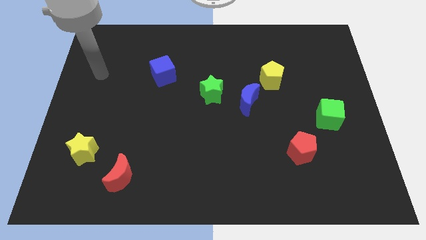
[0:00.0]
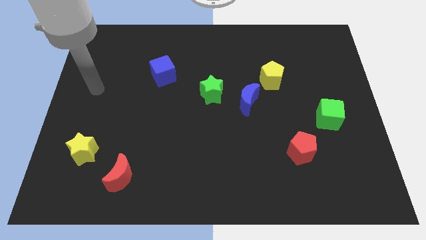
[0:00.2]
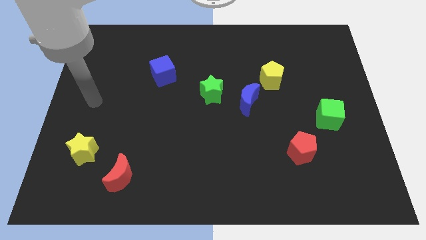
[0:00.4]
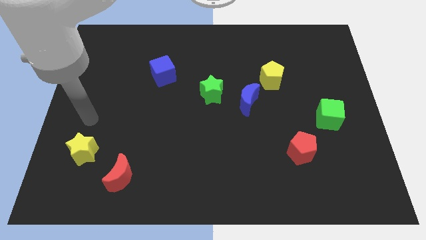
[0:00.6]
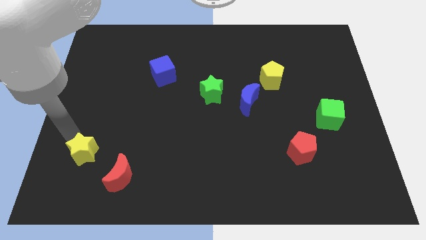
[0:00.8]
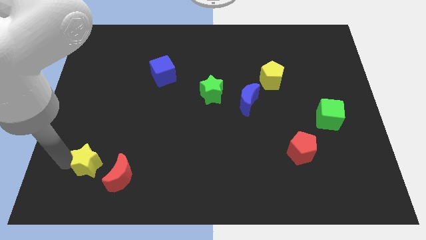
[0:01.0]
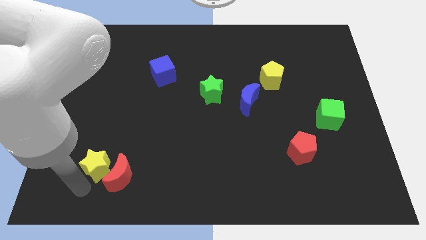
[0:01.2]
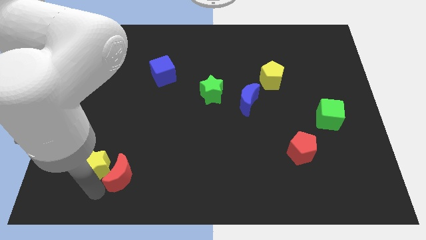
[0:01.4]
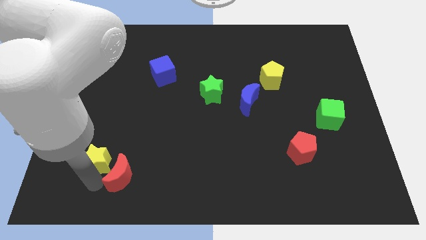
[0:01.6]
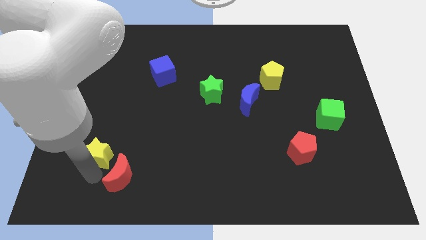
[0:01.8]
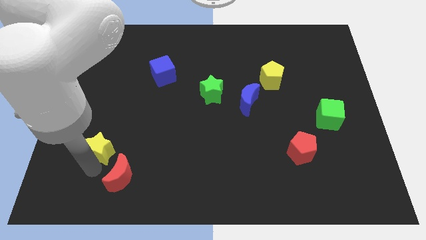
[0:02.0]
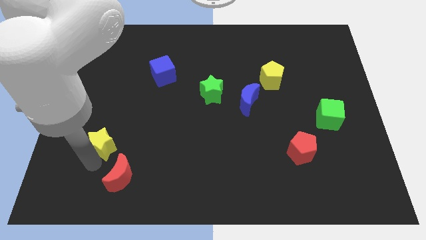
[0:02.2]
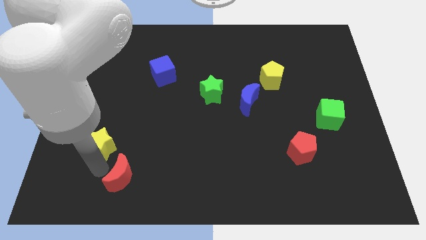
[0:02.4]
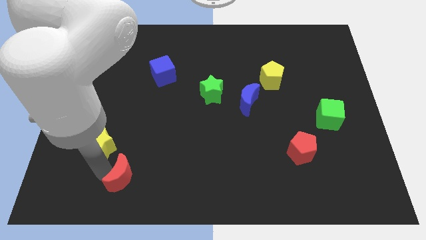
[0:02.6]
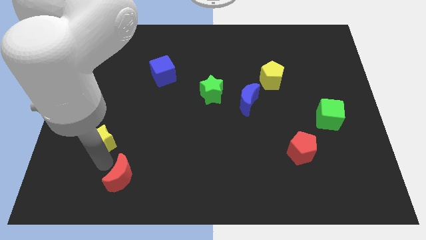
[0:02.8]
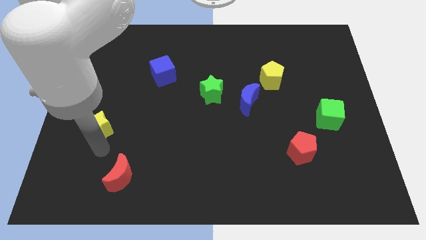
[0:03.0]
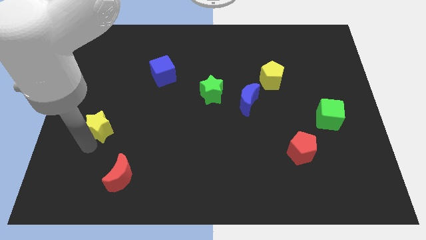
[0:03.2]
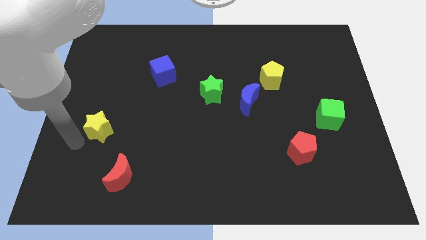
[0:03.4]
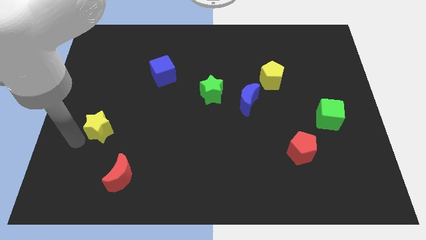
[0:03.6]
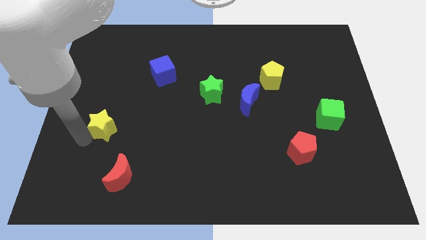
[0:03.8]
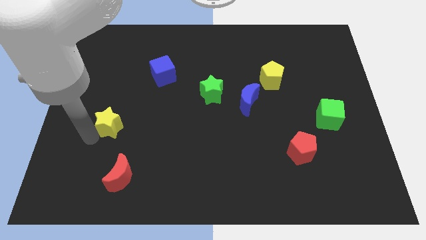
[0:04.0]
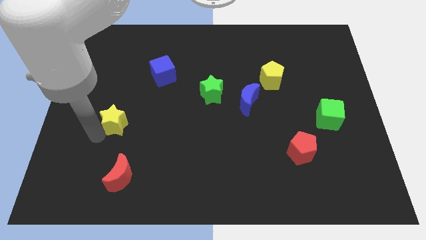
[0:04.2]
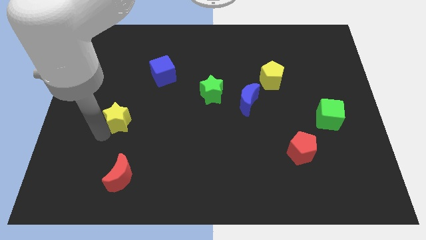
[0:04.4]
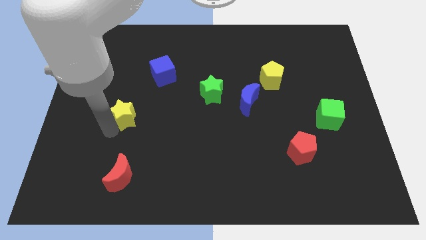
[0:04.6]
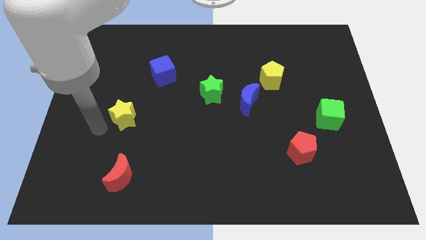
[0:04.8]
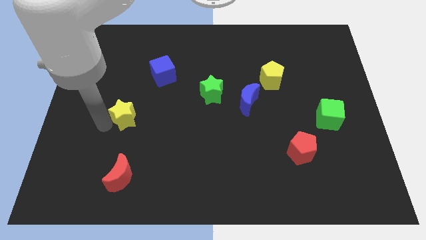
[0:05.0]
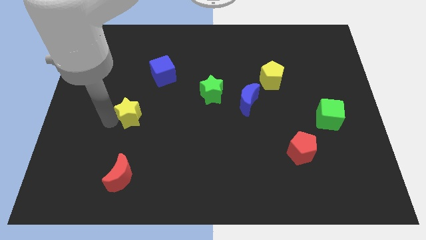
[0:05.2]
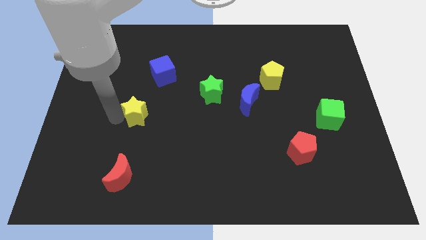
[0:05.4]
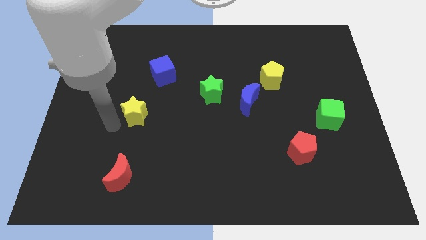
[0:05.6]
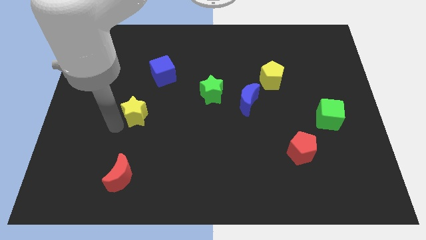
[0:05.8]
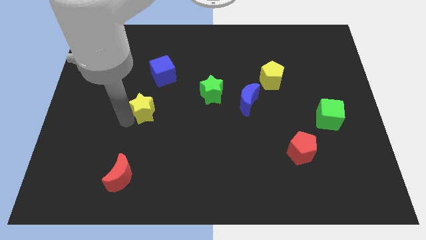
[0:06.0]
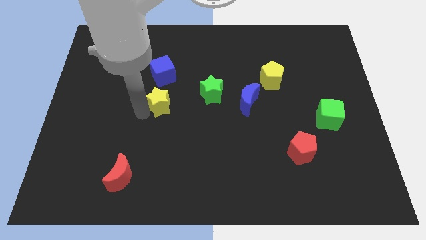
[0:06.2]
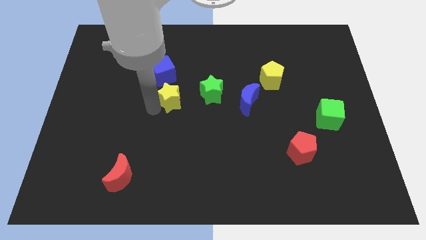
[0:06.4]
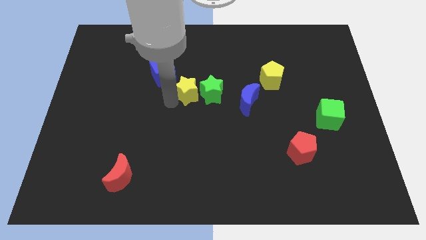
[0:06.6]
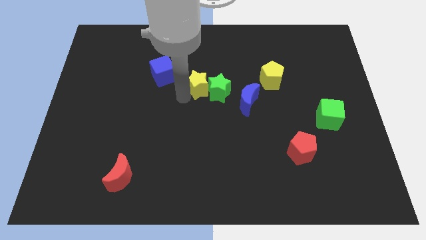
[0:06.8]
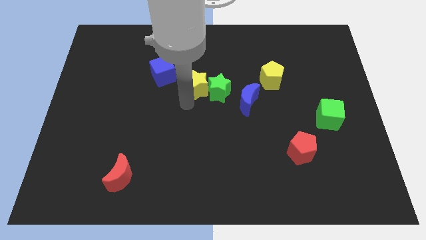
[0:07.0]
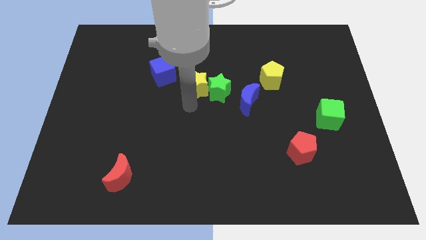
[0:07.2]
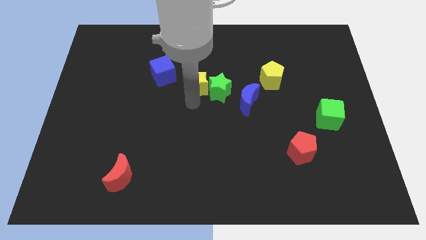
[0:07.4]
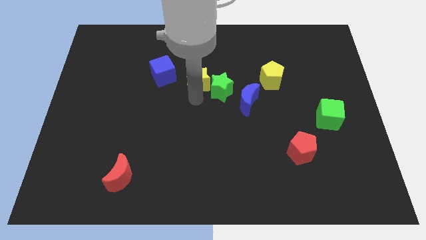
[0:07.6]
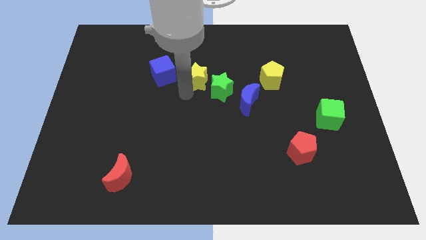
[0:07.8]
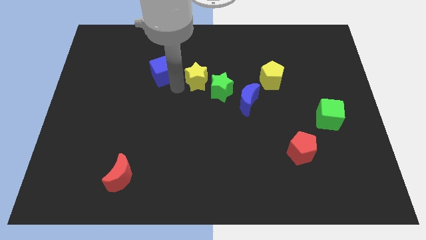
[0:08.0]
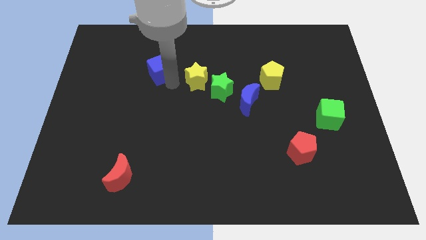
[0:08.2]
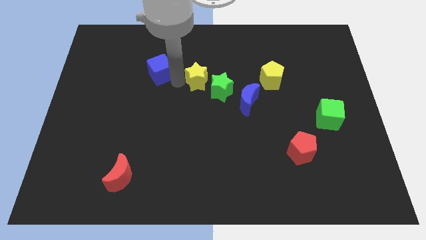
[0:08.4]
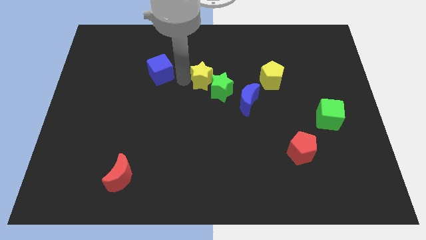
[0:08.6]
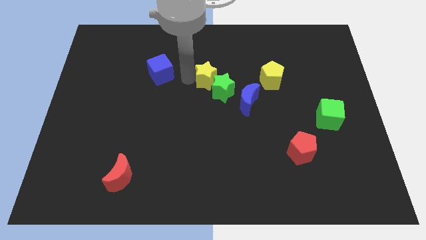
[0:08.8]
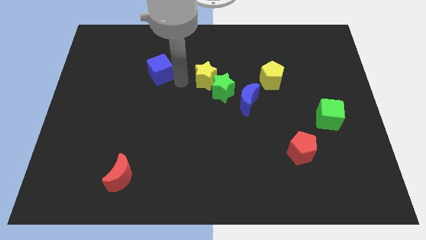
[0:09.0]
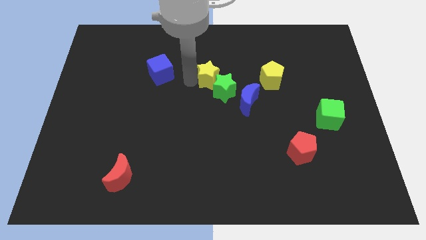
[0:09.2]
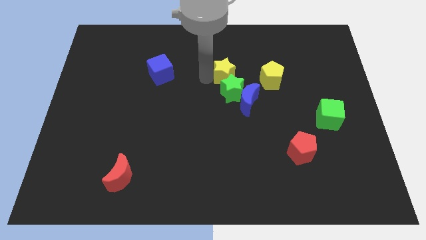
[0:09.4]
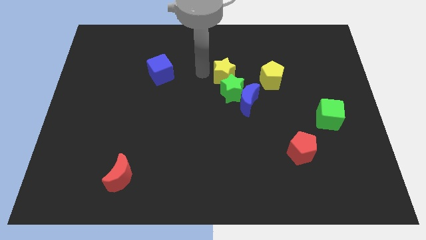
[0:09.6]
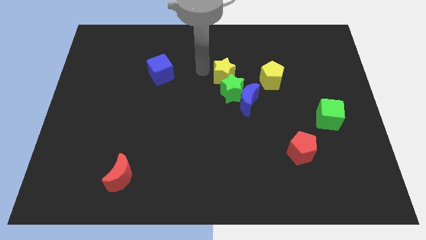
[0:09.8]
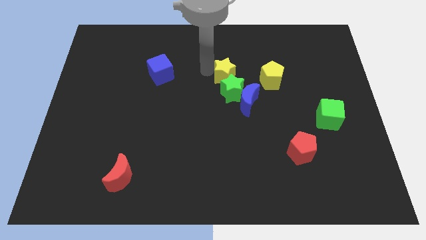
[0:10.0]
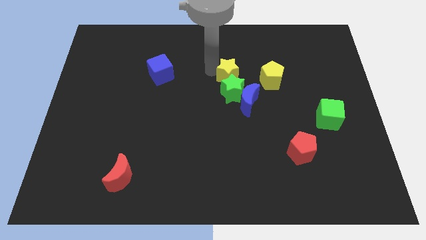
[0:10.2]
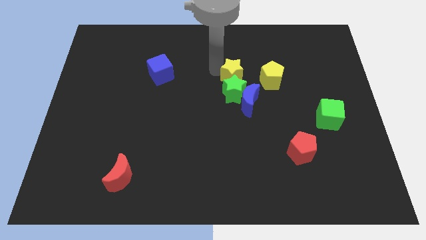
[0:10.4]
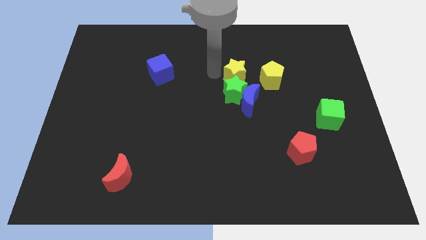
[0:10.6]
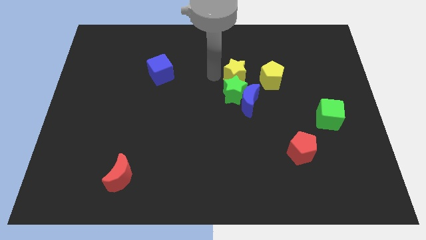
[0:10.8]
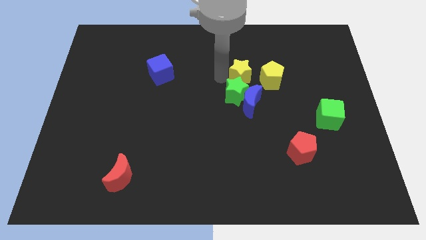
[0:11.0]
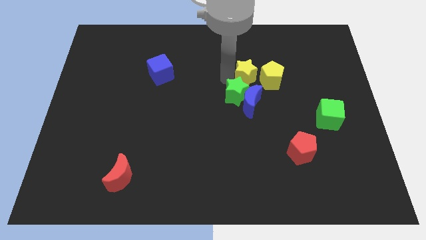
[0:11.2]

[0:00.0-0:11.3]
slide the yellow star towards the yellow pentagon

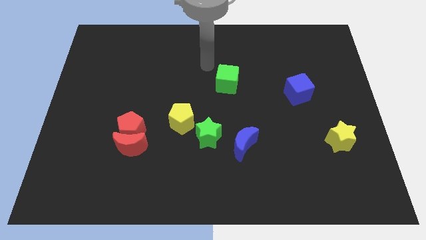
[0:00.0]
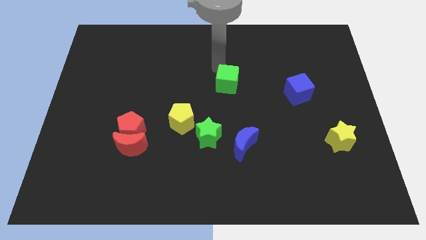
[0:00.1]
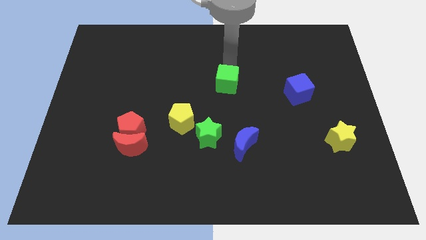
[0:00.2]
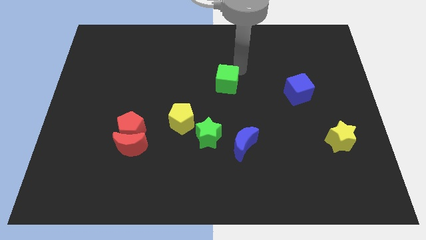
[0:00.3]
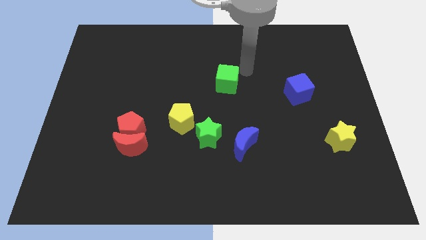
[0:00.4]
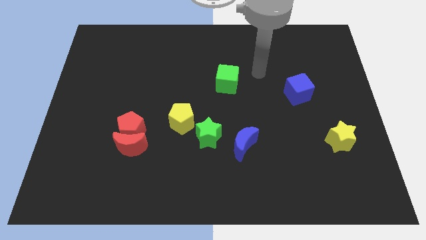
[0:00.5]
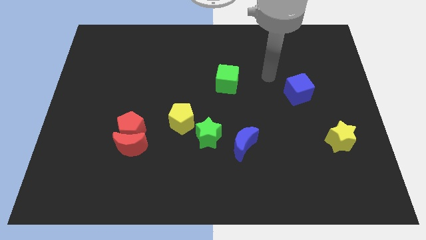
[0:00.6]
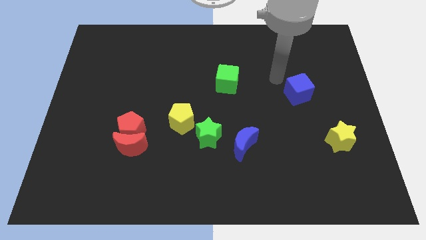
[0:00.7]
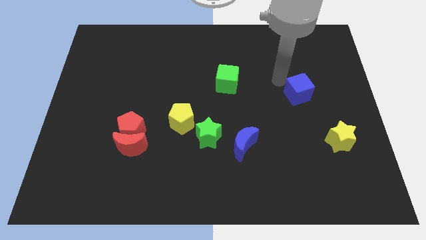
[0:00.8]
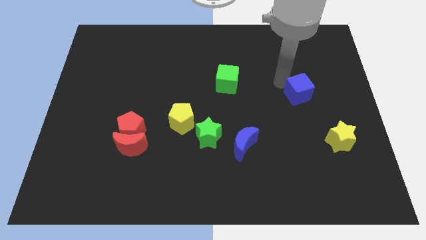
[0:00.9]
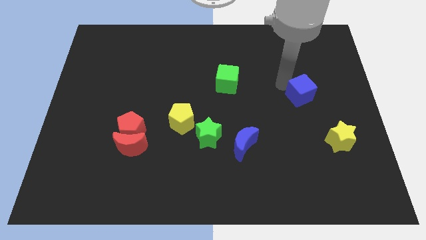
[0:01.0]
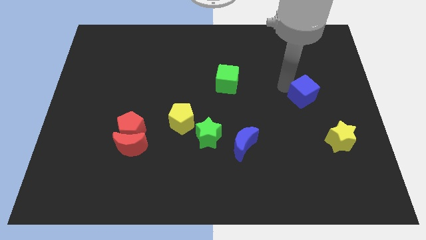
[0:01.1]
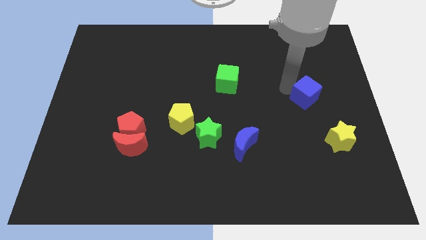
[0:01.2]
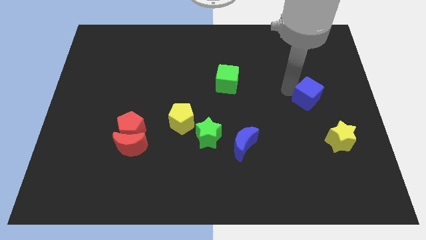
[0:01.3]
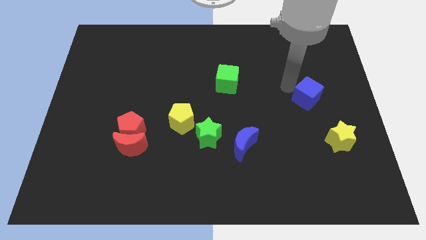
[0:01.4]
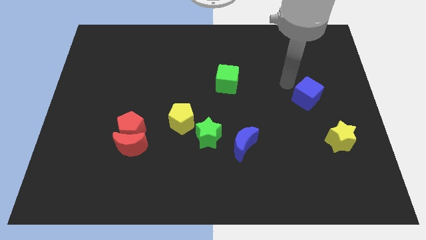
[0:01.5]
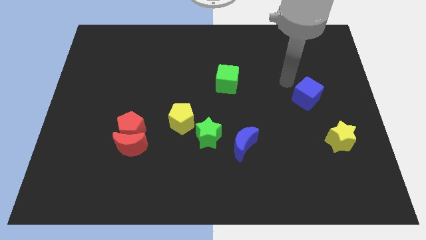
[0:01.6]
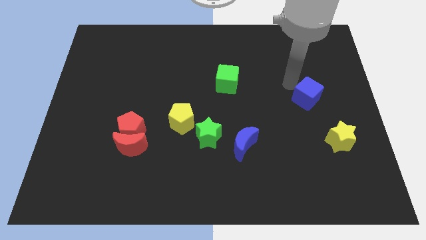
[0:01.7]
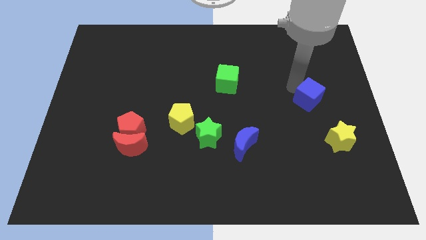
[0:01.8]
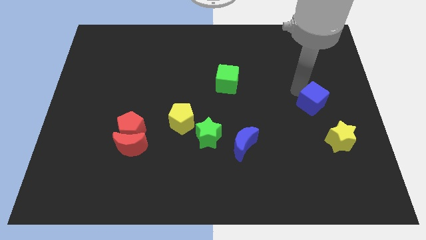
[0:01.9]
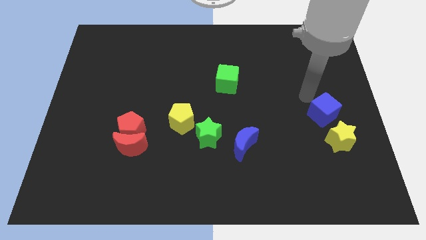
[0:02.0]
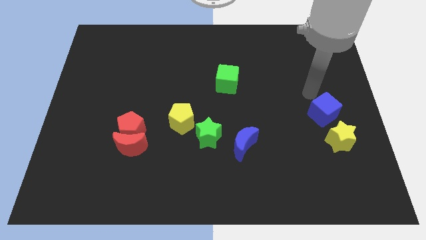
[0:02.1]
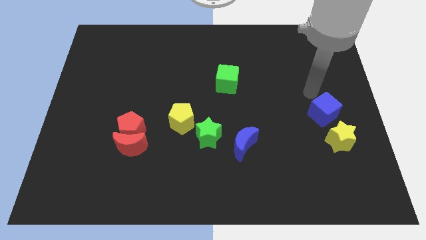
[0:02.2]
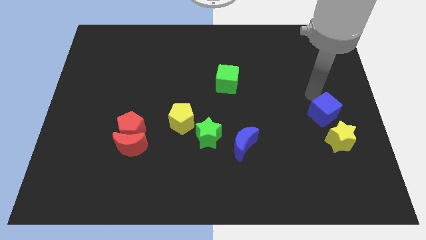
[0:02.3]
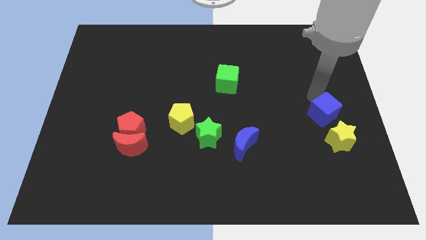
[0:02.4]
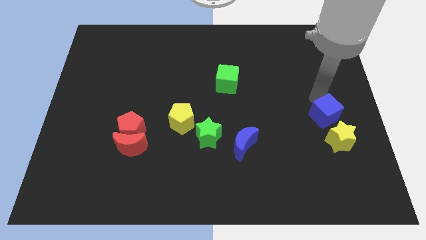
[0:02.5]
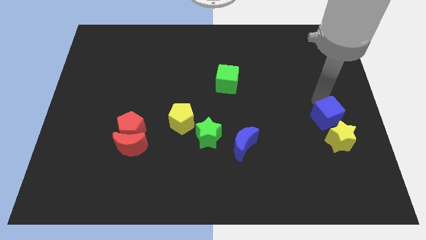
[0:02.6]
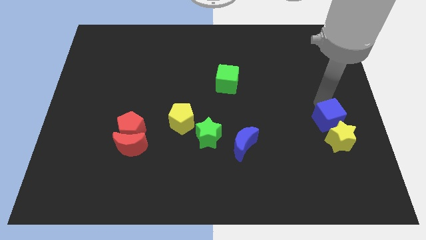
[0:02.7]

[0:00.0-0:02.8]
push the blue cube next to the yellow star
